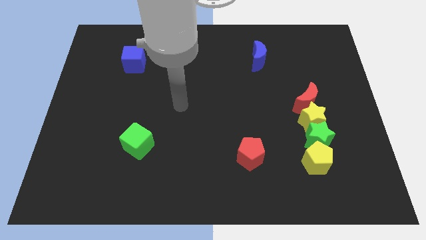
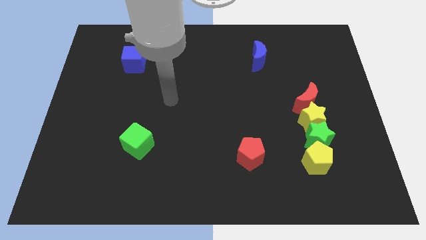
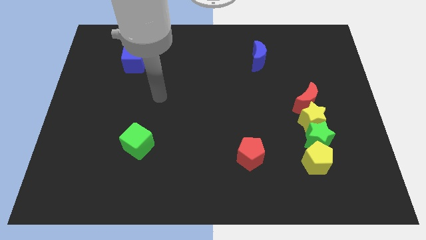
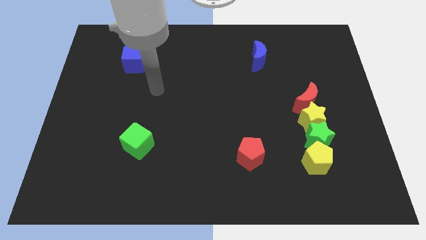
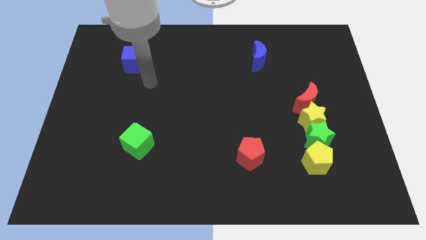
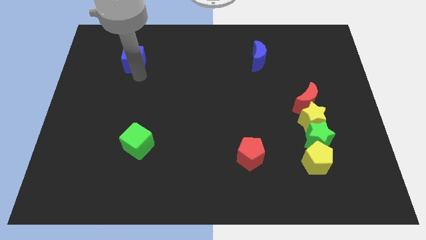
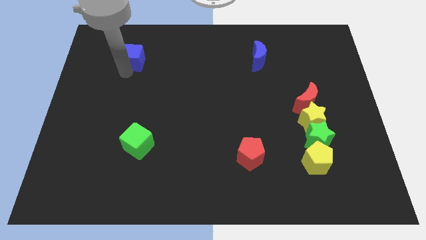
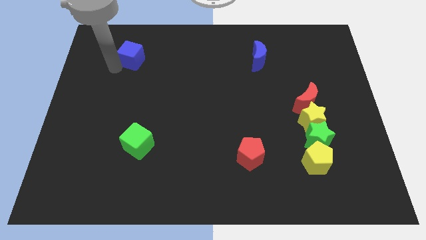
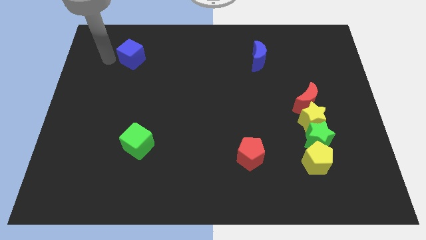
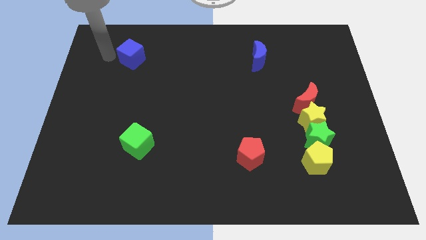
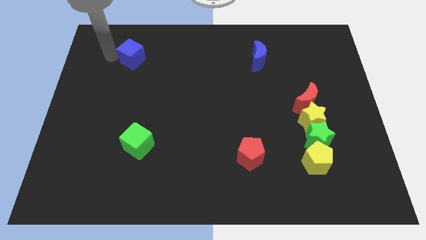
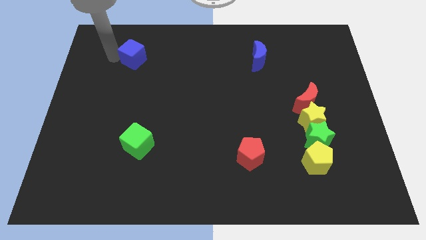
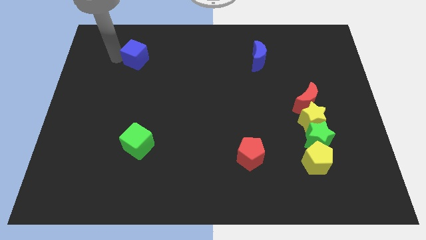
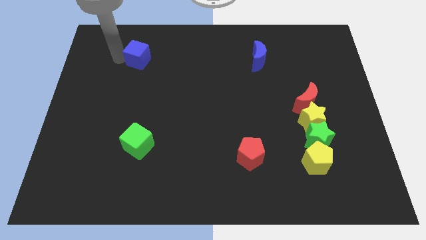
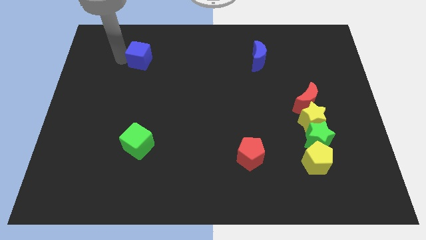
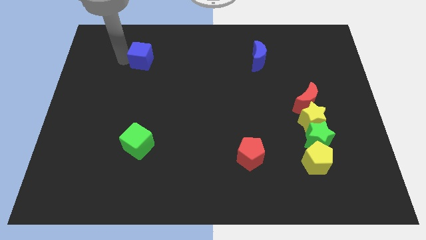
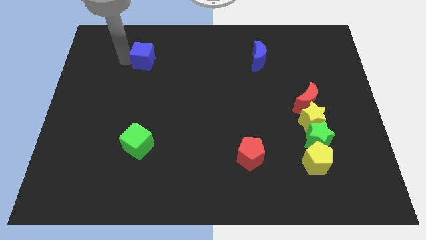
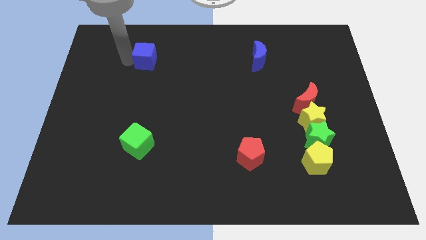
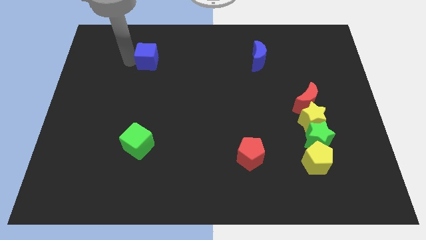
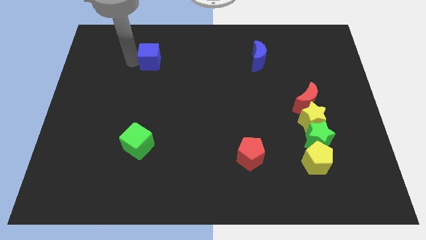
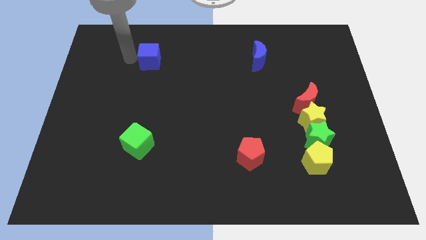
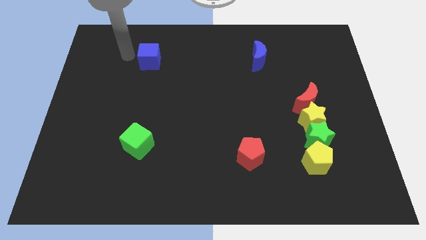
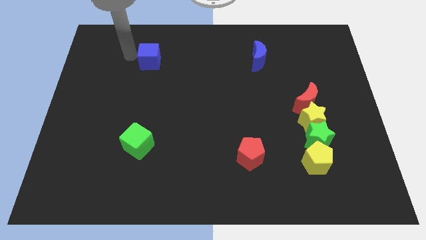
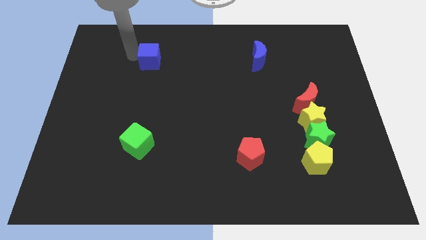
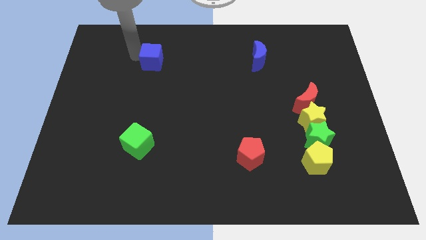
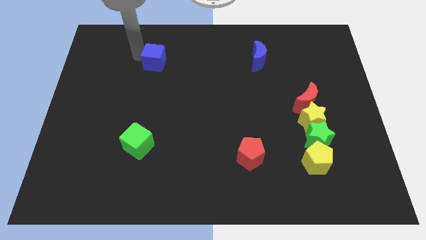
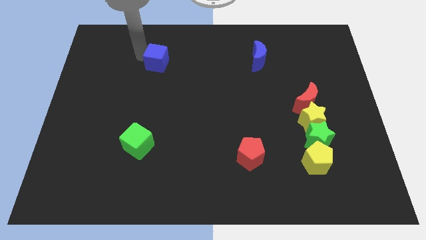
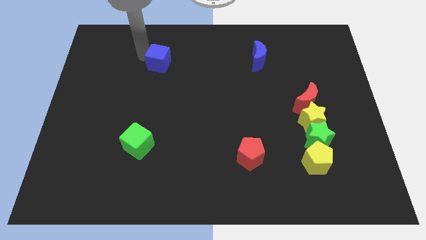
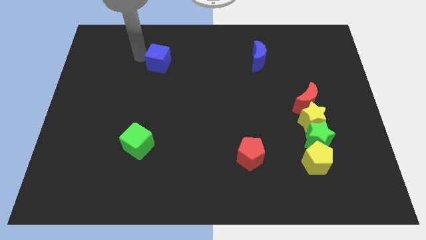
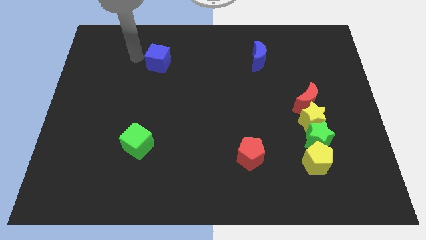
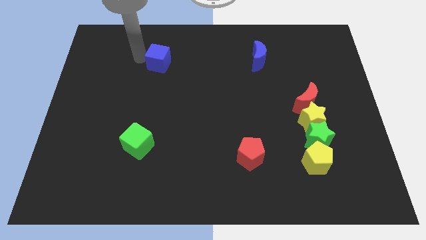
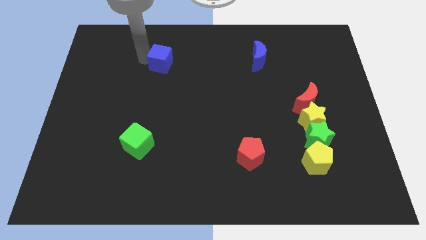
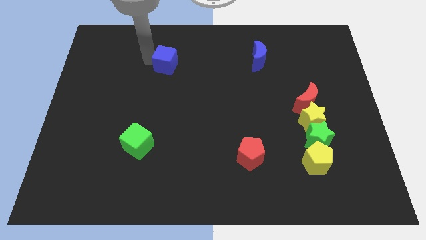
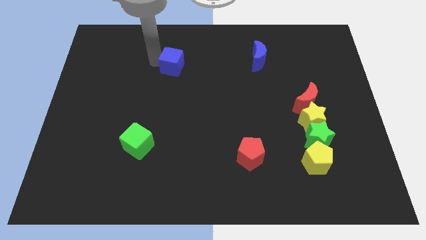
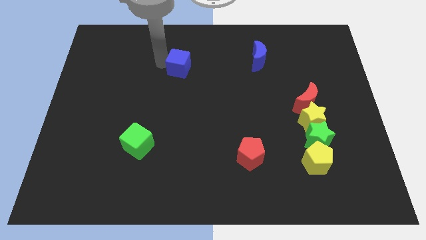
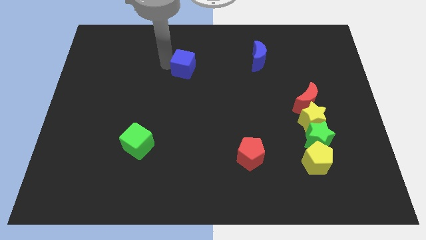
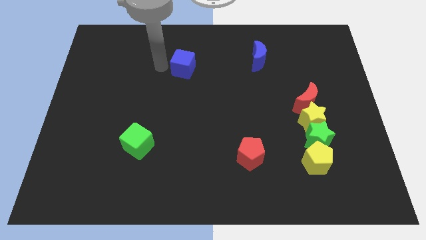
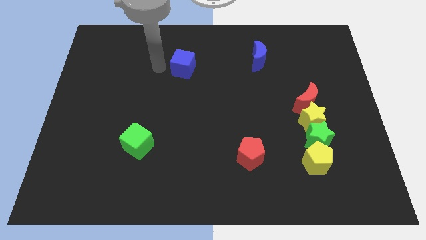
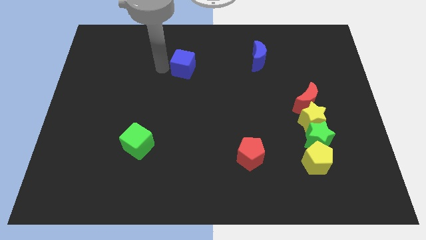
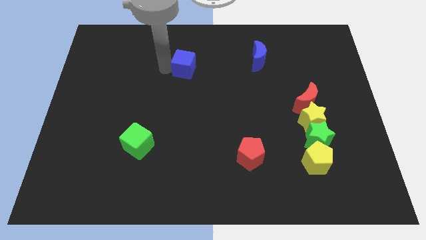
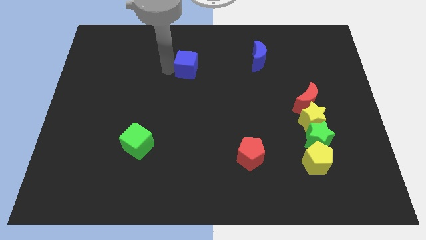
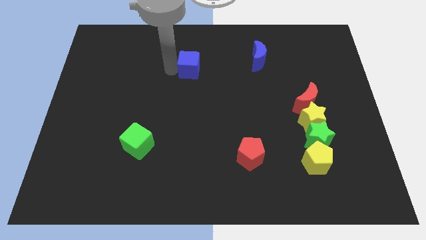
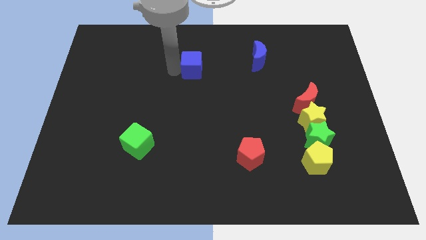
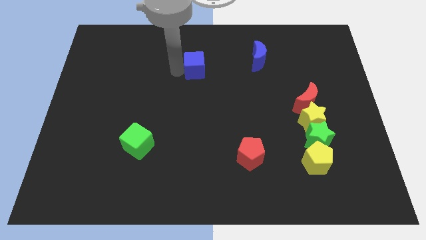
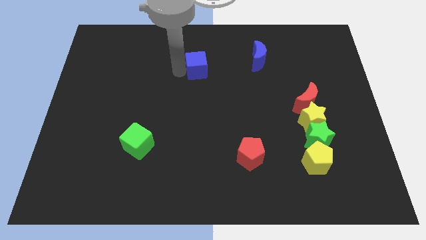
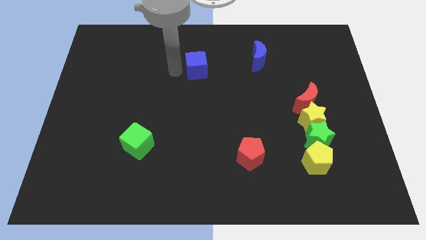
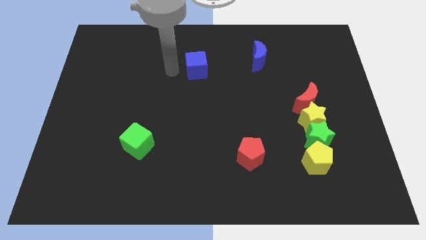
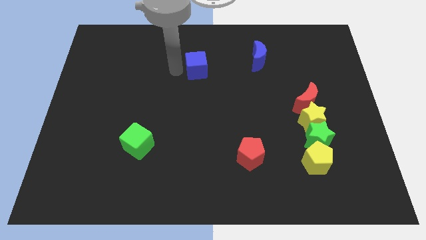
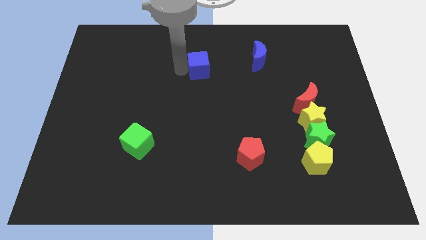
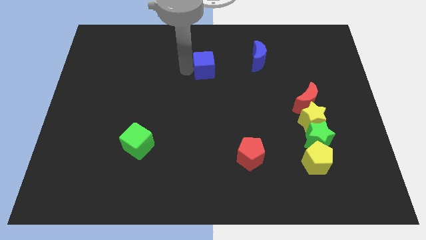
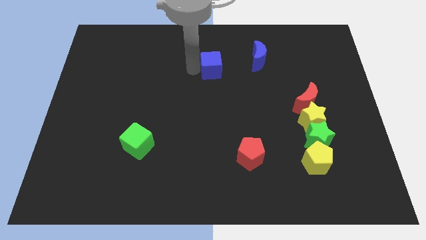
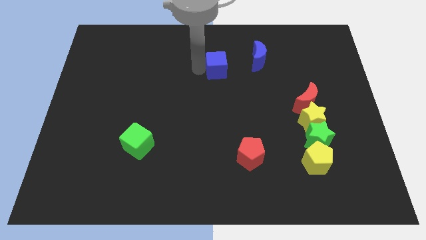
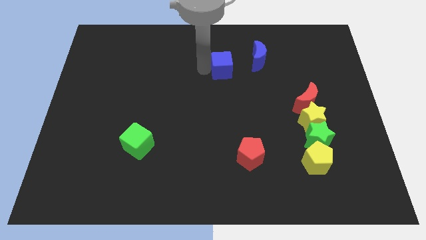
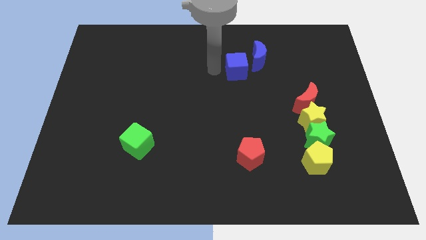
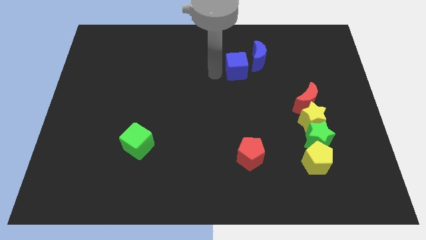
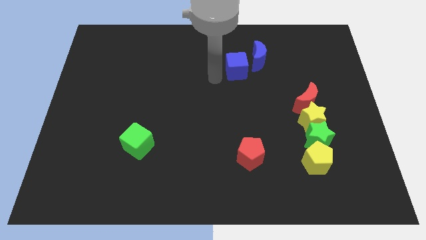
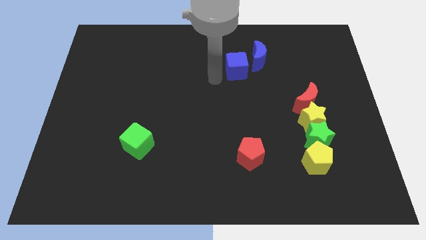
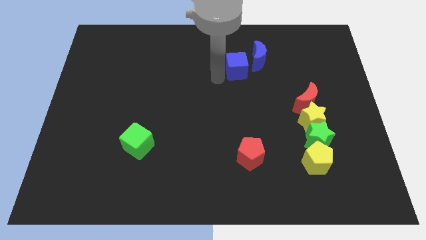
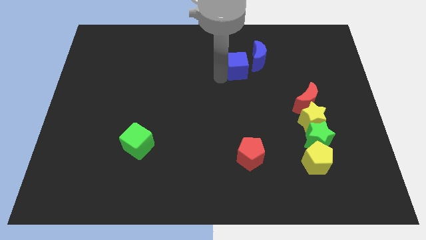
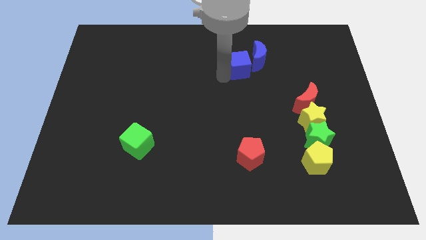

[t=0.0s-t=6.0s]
move the blue cube close to the blue moon

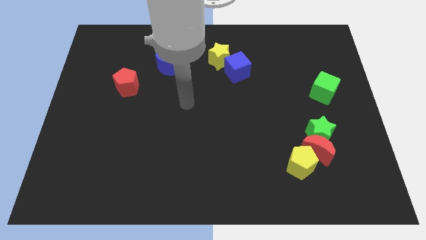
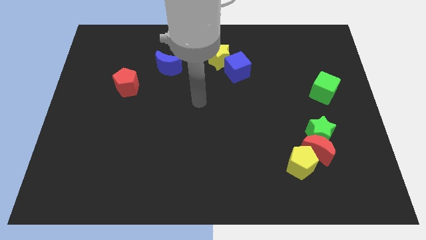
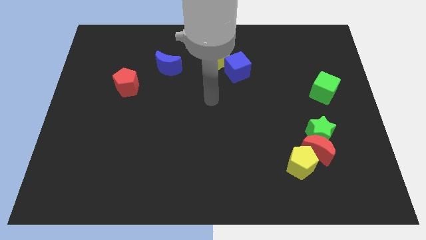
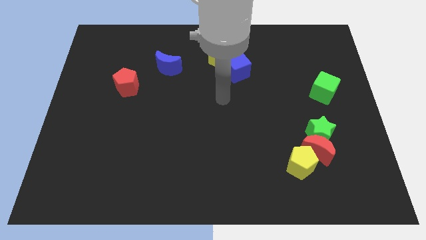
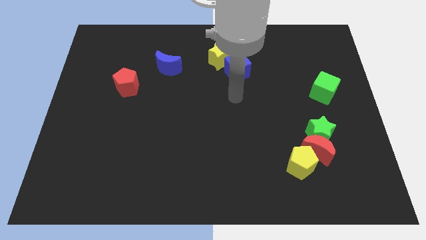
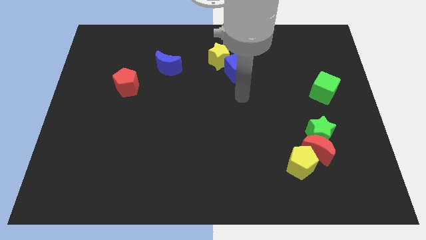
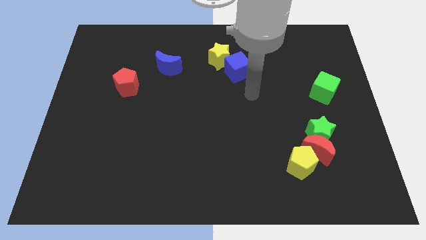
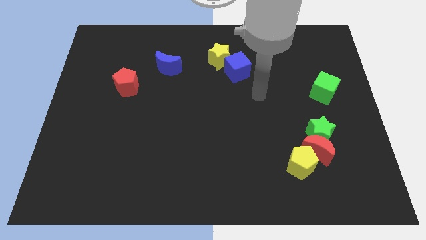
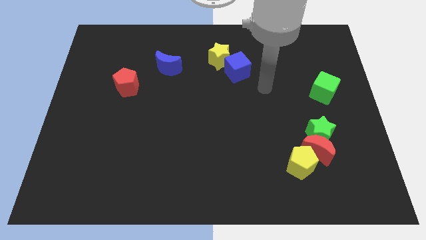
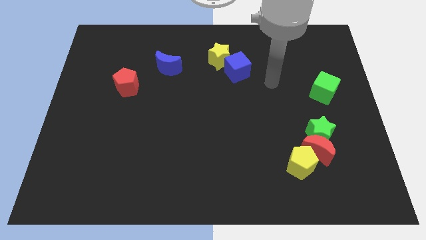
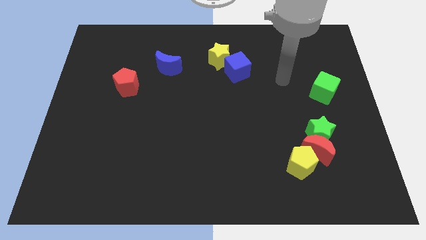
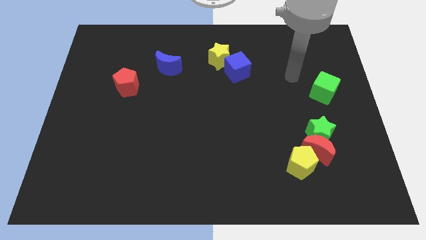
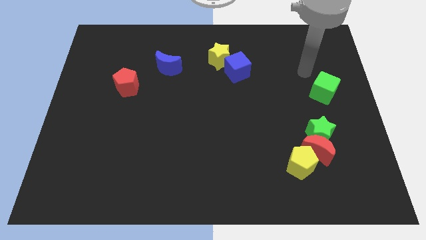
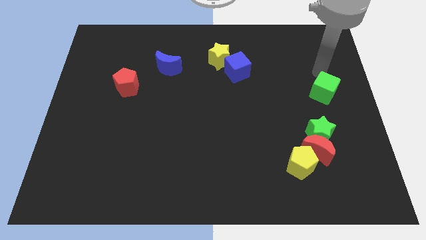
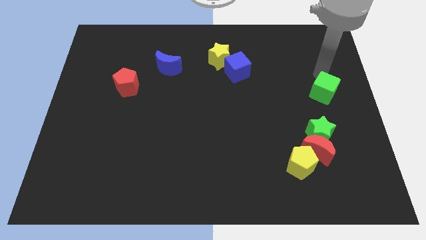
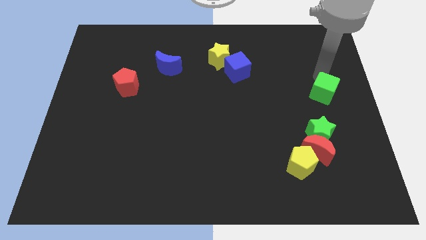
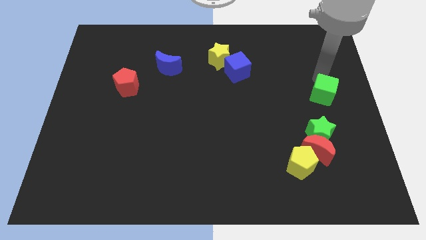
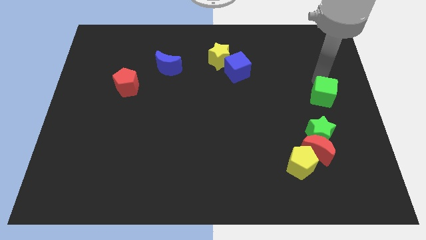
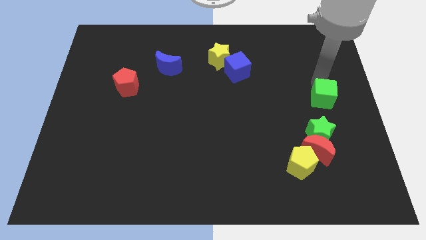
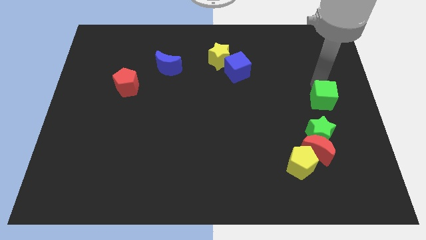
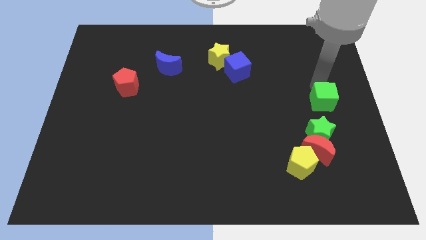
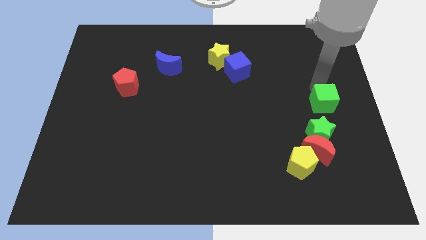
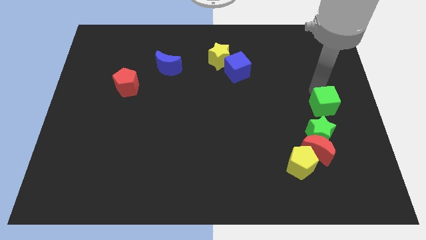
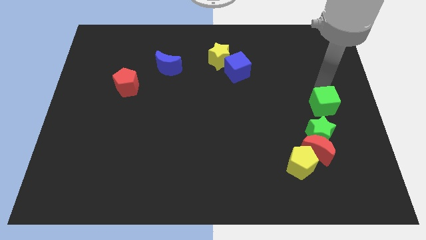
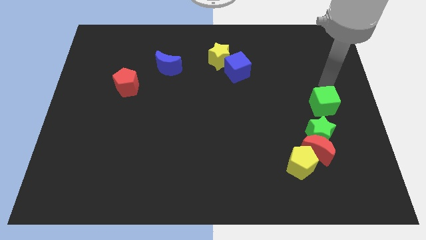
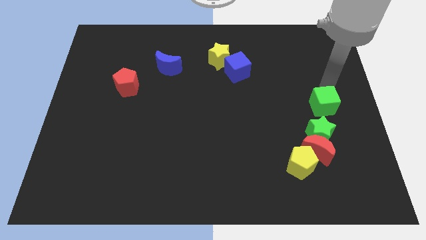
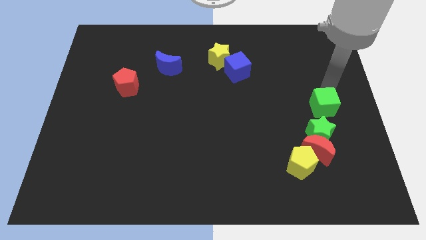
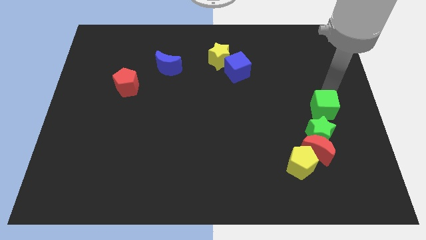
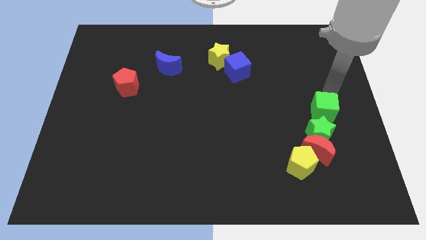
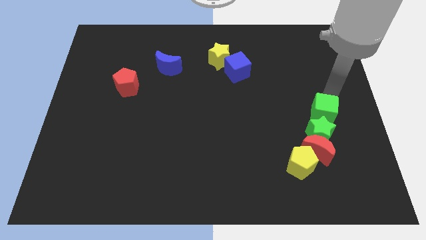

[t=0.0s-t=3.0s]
push the green cube close to the green star
